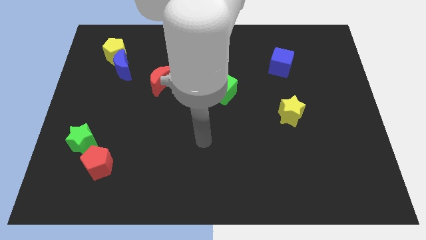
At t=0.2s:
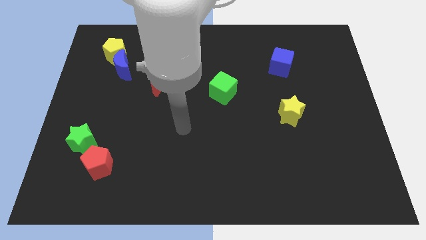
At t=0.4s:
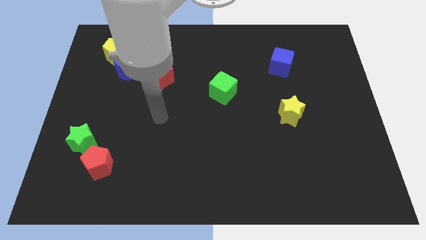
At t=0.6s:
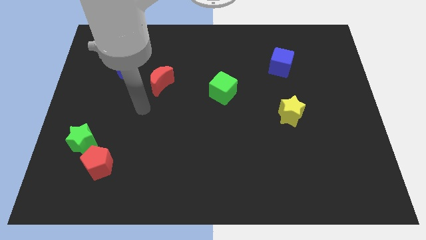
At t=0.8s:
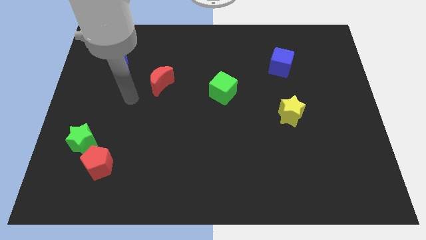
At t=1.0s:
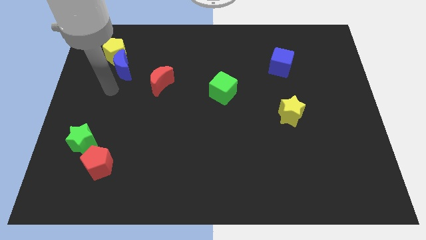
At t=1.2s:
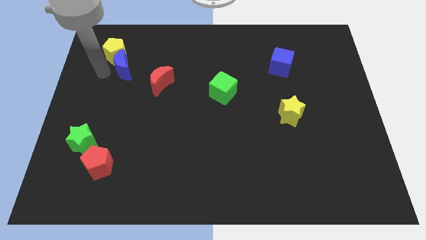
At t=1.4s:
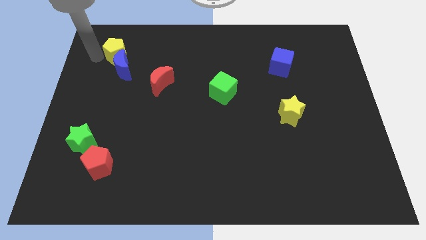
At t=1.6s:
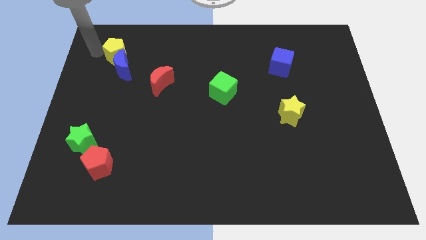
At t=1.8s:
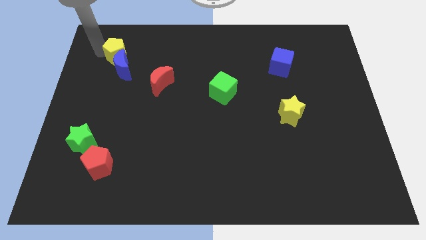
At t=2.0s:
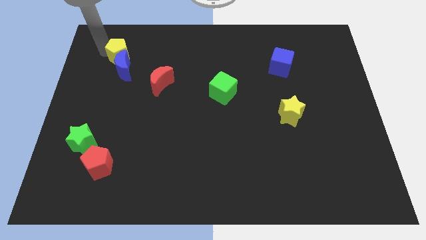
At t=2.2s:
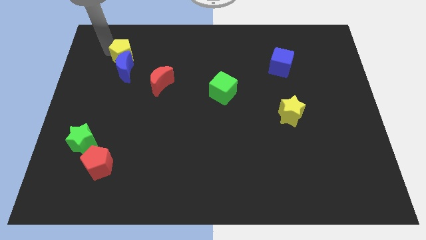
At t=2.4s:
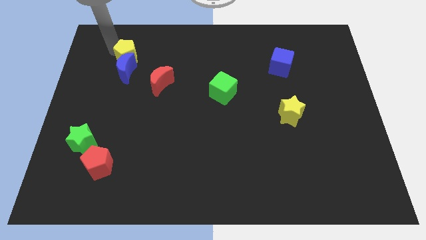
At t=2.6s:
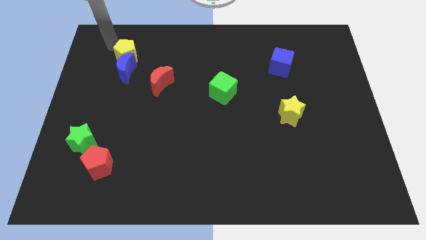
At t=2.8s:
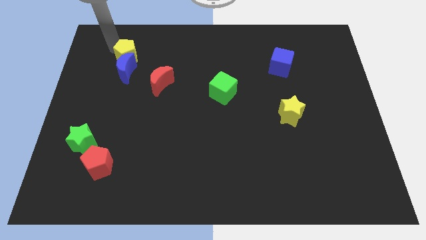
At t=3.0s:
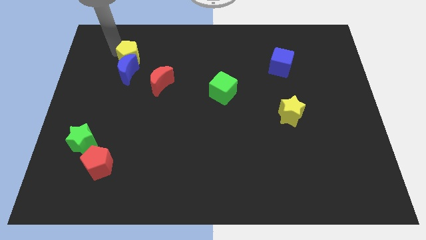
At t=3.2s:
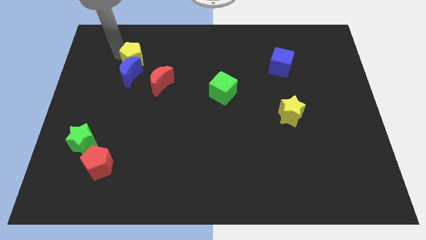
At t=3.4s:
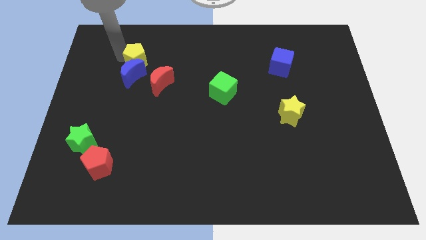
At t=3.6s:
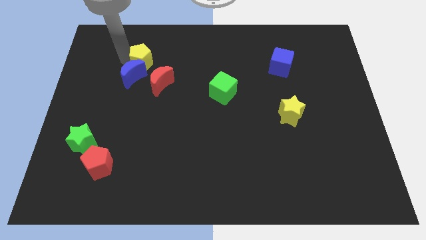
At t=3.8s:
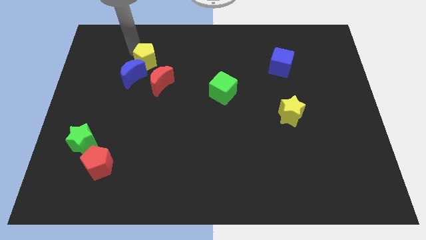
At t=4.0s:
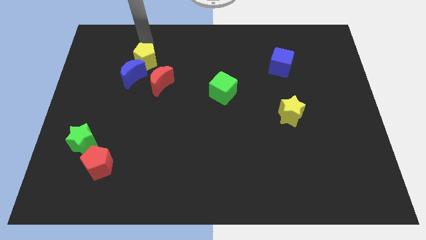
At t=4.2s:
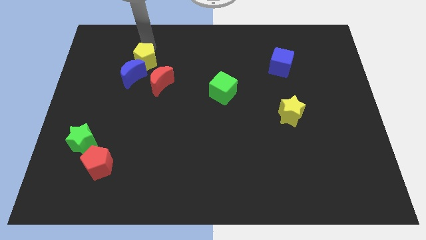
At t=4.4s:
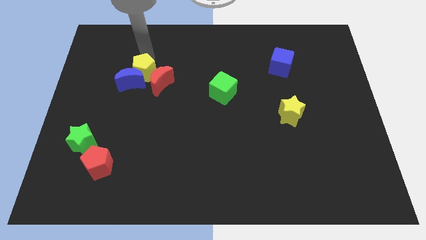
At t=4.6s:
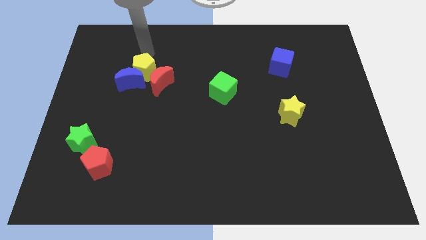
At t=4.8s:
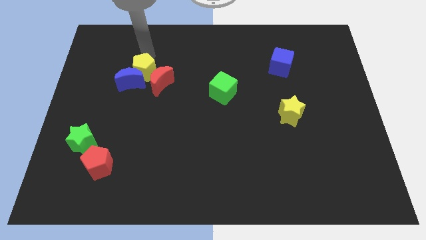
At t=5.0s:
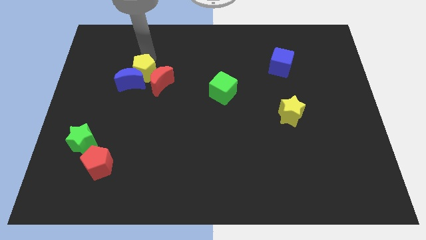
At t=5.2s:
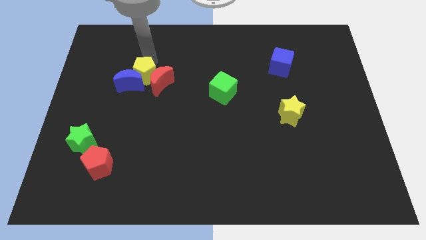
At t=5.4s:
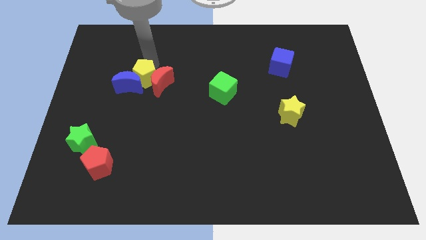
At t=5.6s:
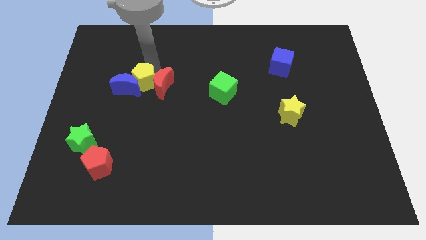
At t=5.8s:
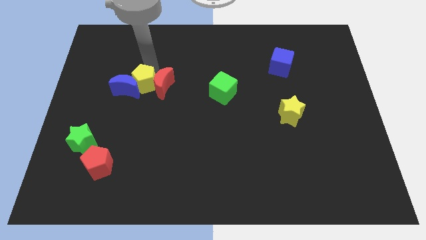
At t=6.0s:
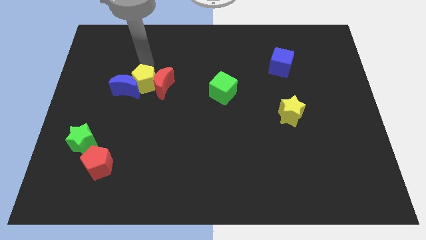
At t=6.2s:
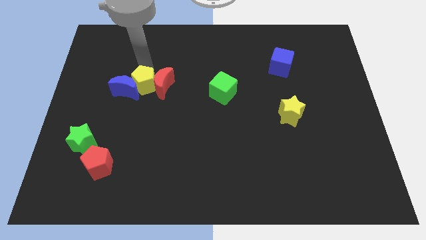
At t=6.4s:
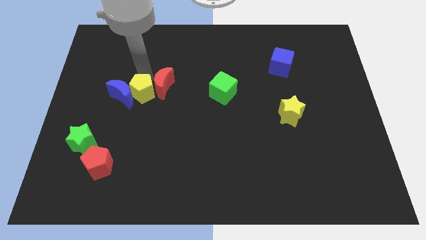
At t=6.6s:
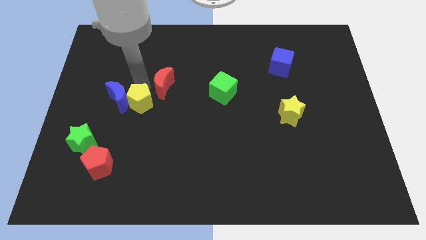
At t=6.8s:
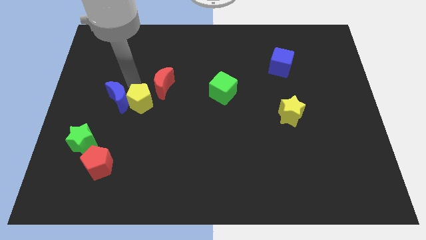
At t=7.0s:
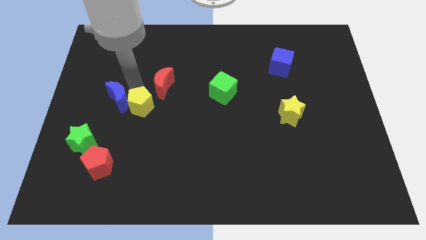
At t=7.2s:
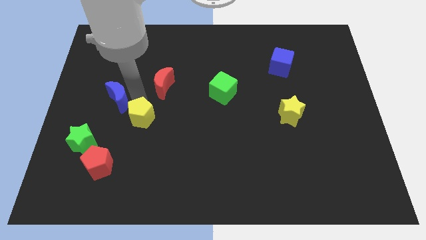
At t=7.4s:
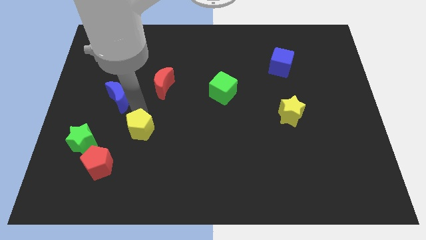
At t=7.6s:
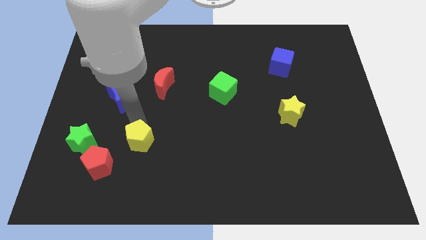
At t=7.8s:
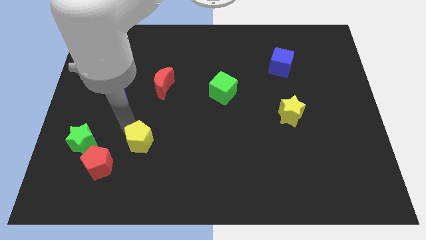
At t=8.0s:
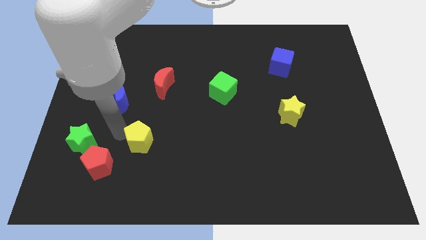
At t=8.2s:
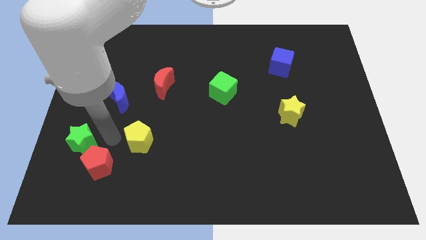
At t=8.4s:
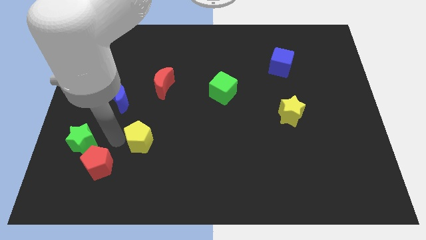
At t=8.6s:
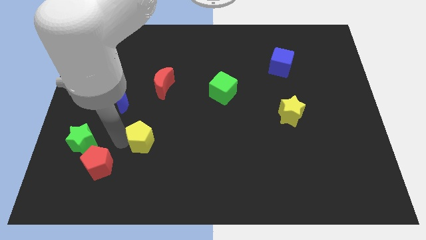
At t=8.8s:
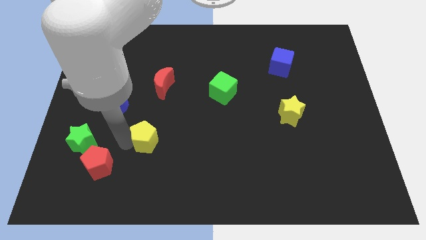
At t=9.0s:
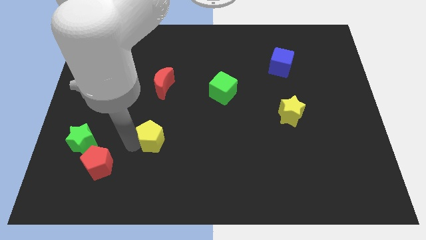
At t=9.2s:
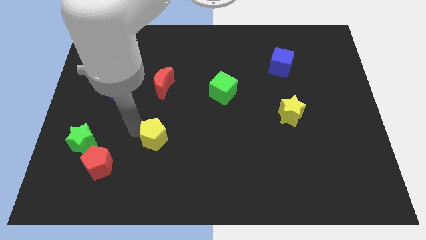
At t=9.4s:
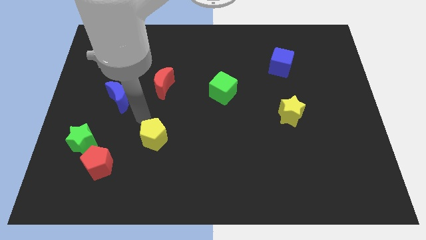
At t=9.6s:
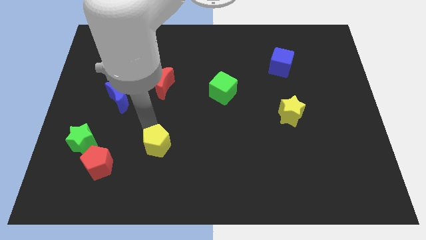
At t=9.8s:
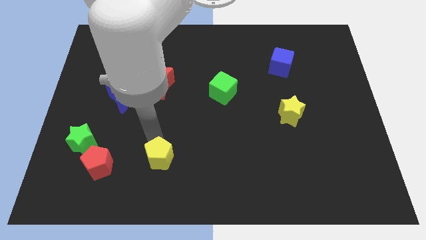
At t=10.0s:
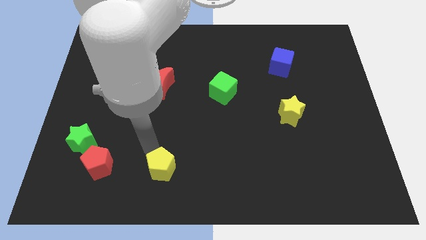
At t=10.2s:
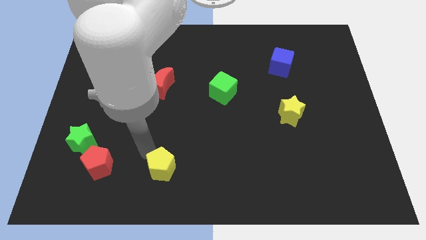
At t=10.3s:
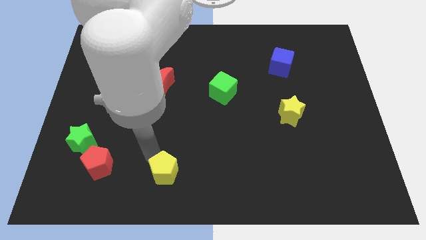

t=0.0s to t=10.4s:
put the yellow pentagon to the bottom side

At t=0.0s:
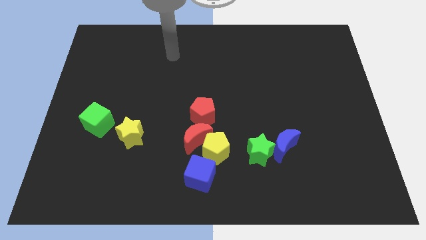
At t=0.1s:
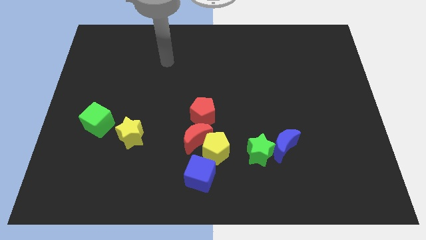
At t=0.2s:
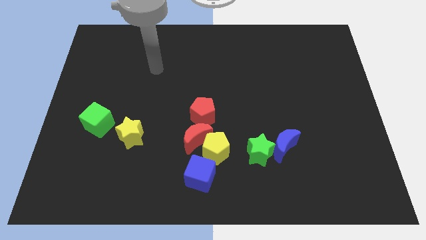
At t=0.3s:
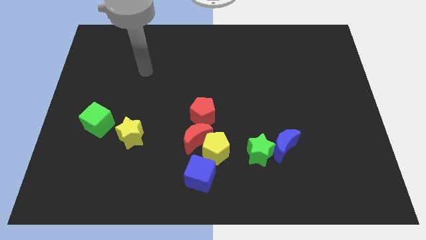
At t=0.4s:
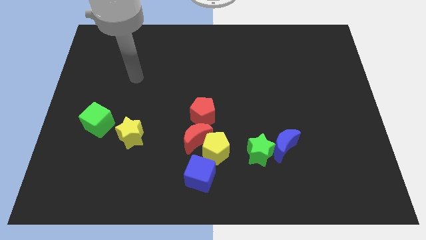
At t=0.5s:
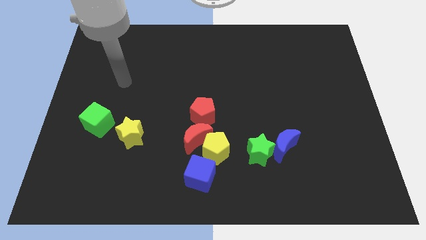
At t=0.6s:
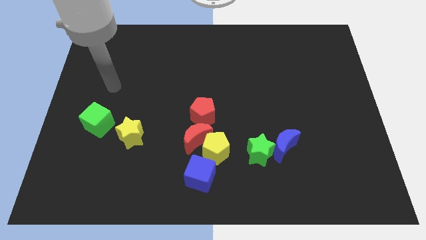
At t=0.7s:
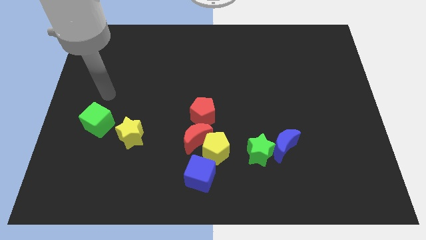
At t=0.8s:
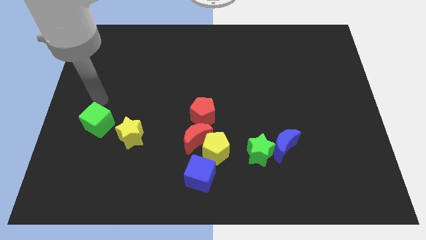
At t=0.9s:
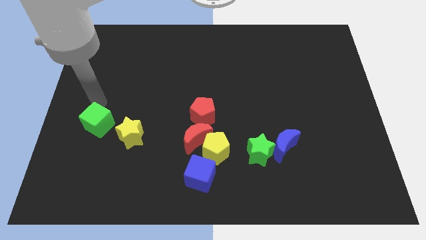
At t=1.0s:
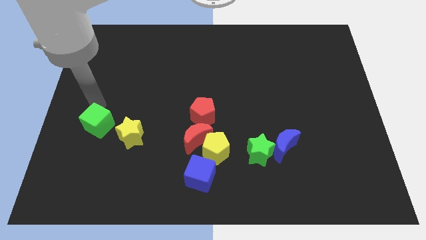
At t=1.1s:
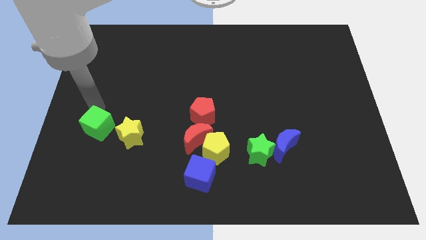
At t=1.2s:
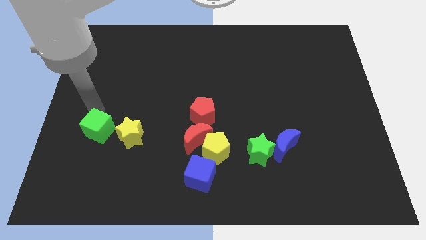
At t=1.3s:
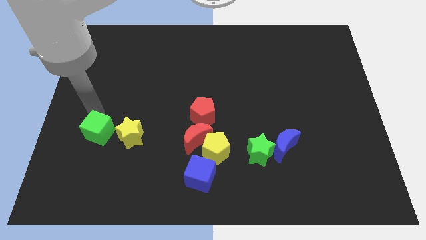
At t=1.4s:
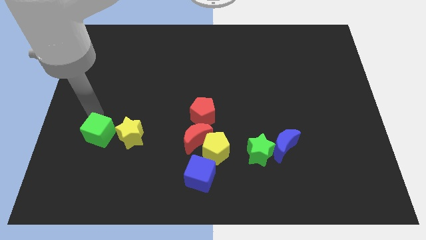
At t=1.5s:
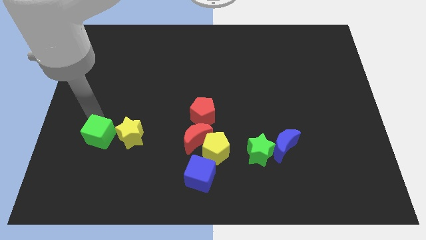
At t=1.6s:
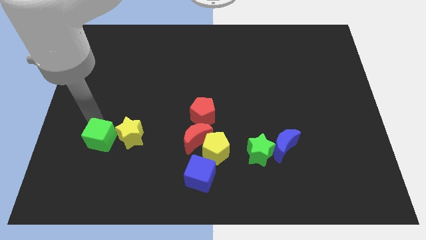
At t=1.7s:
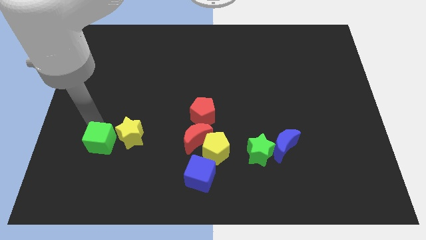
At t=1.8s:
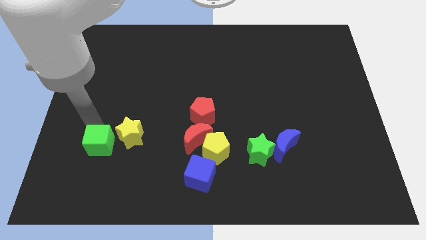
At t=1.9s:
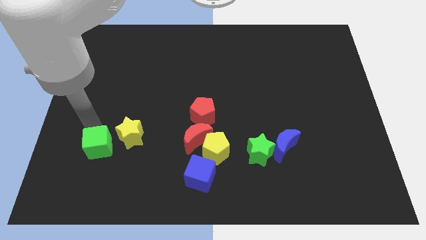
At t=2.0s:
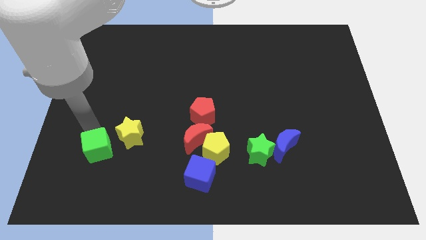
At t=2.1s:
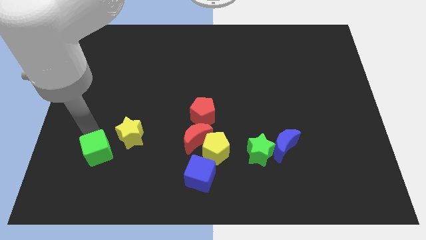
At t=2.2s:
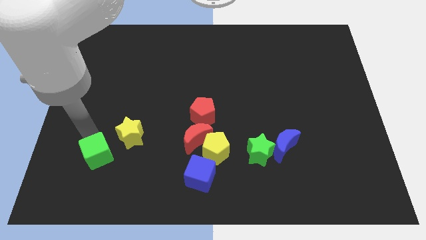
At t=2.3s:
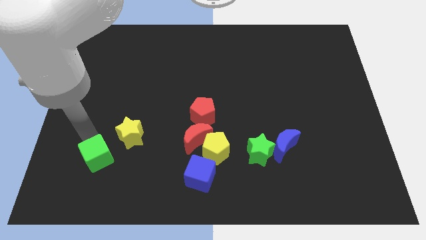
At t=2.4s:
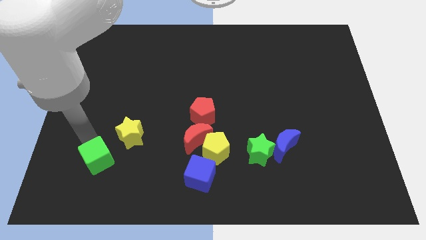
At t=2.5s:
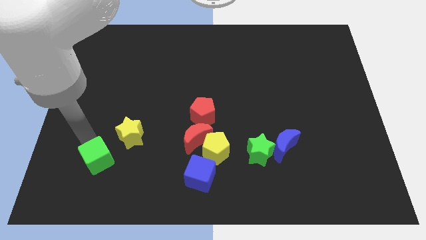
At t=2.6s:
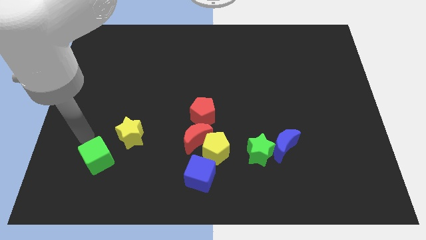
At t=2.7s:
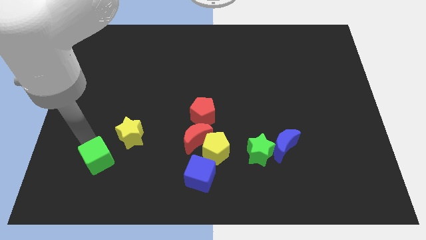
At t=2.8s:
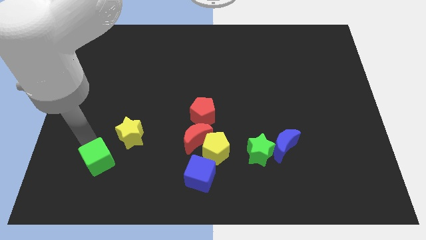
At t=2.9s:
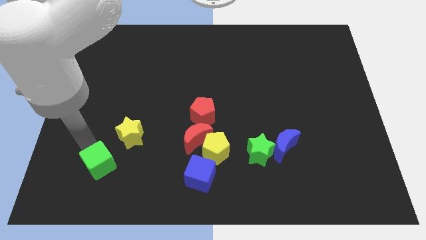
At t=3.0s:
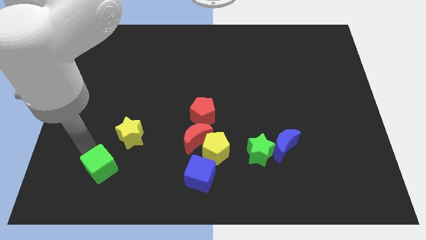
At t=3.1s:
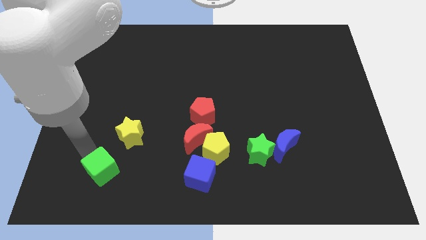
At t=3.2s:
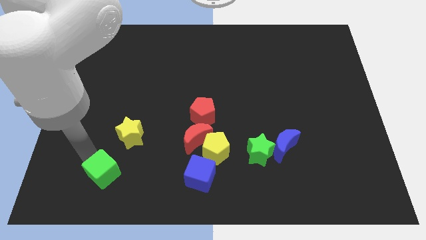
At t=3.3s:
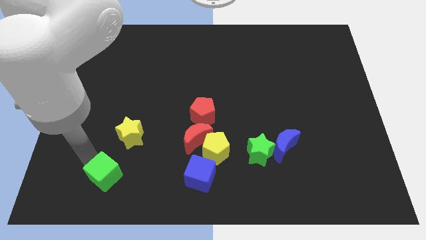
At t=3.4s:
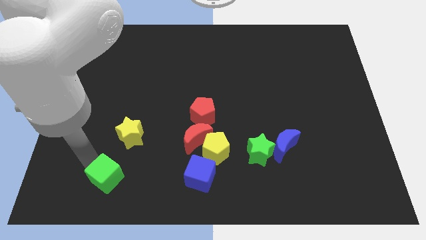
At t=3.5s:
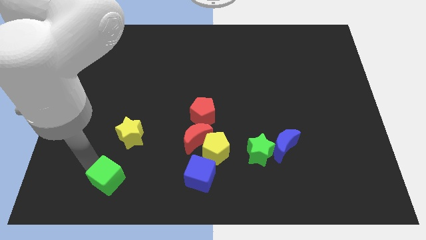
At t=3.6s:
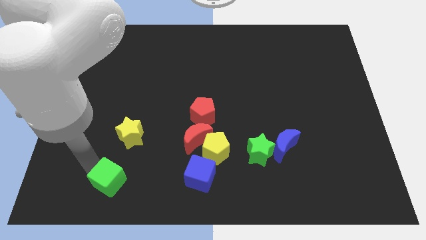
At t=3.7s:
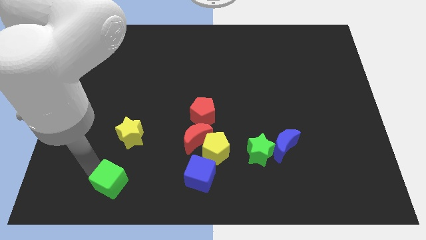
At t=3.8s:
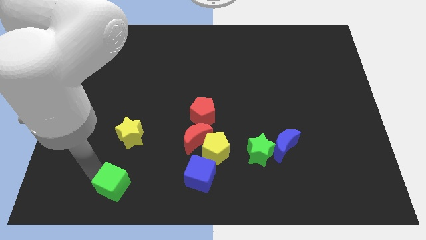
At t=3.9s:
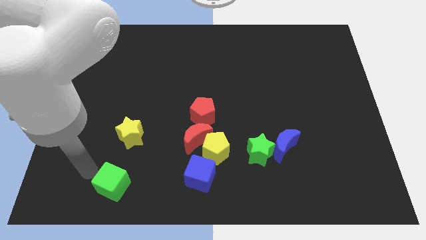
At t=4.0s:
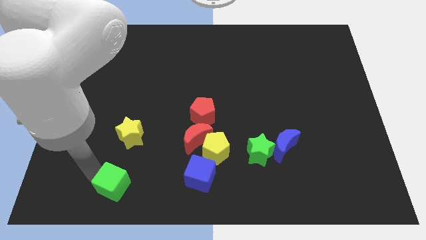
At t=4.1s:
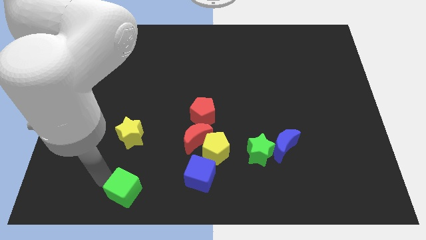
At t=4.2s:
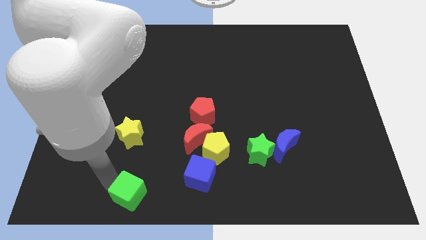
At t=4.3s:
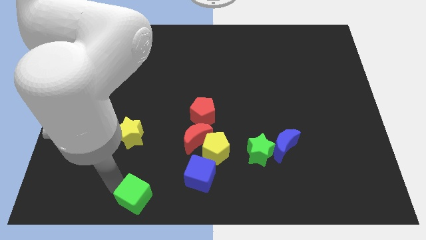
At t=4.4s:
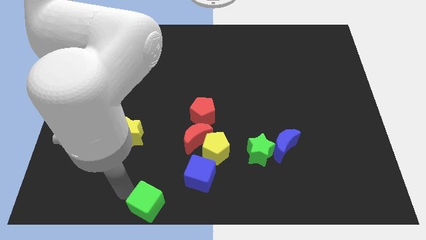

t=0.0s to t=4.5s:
put the green cube to the bottom
